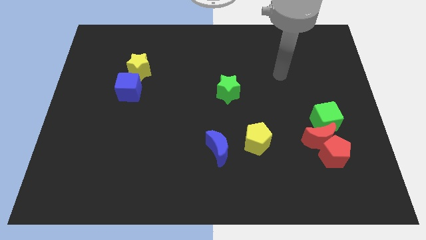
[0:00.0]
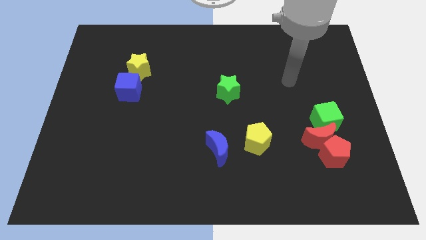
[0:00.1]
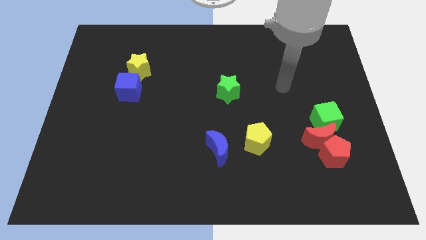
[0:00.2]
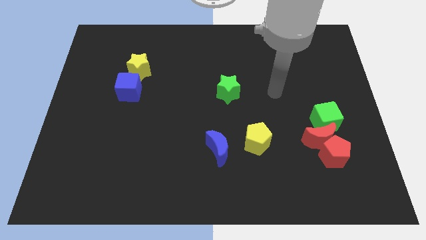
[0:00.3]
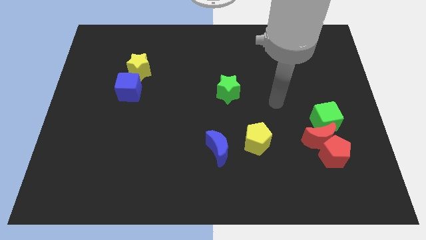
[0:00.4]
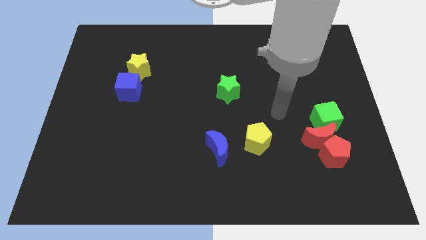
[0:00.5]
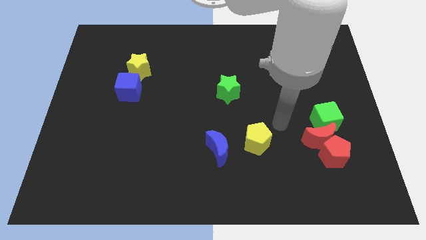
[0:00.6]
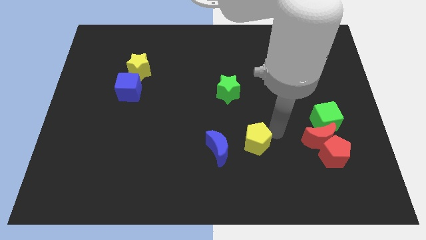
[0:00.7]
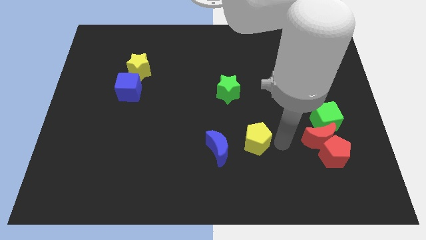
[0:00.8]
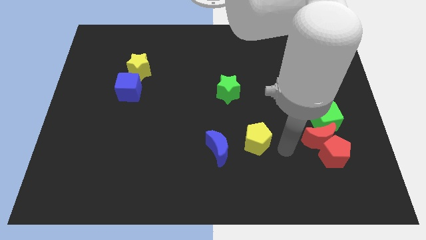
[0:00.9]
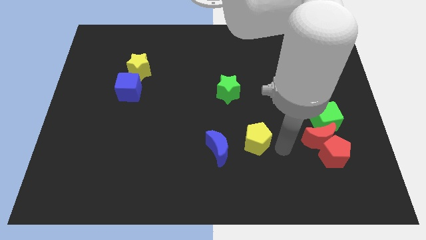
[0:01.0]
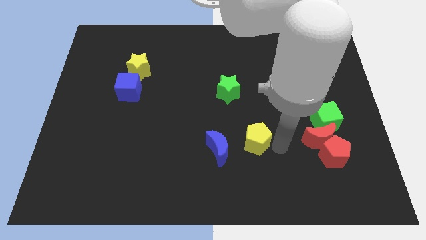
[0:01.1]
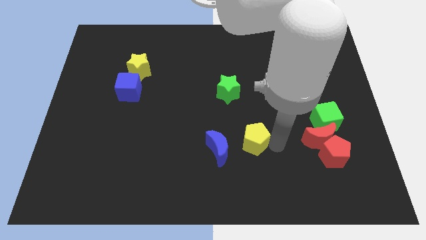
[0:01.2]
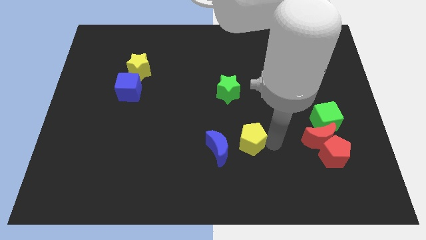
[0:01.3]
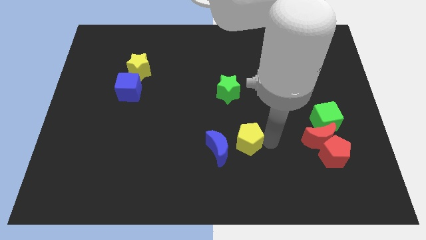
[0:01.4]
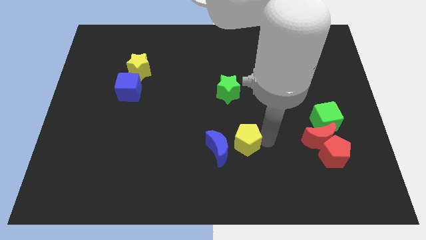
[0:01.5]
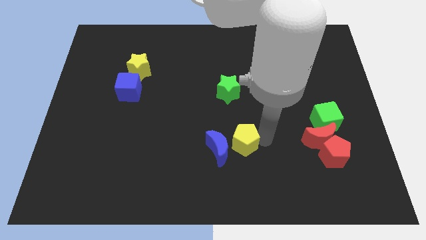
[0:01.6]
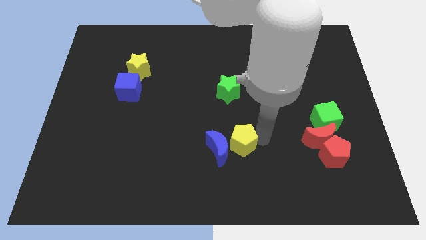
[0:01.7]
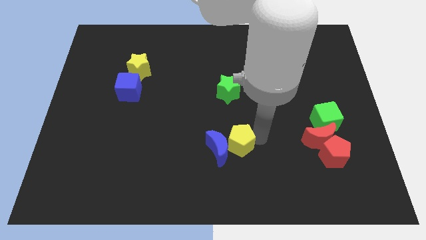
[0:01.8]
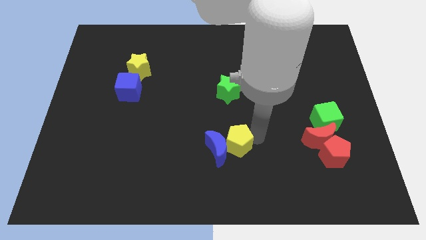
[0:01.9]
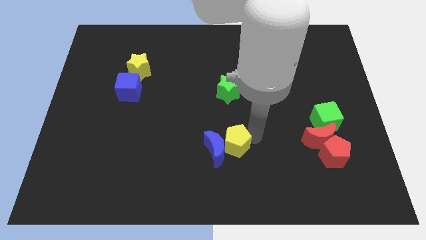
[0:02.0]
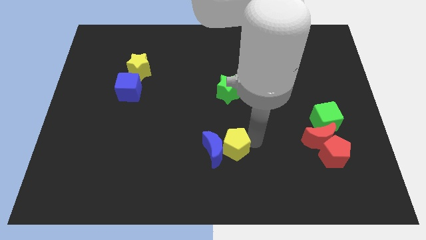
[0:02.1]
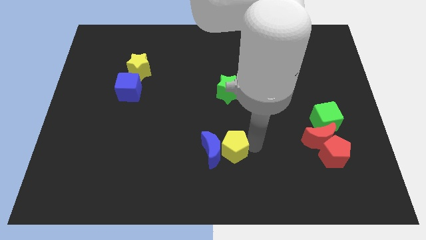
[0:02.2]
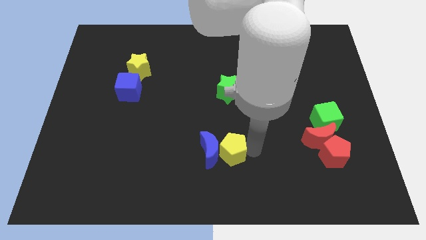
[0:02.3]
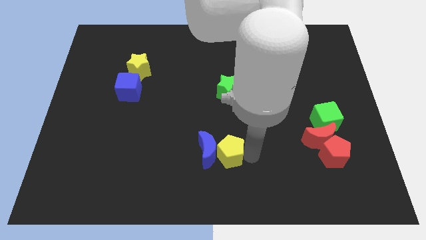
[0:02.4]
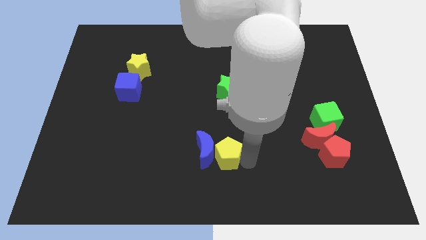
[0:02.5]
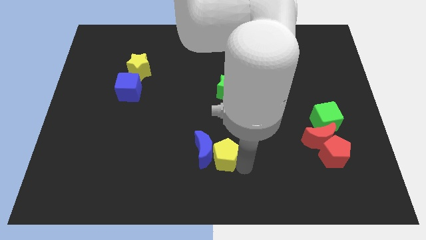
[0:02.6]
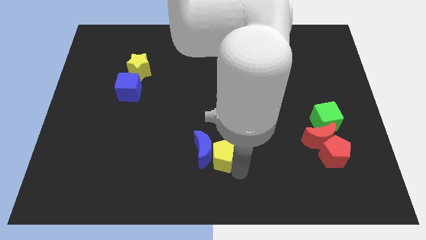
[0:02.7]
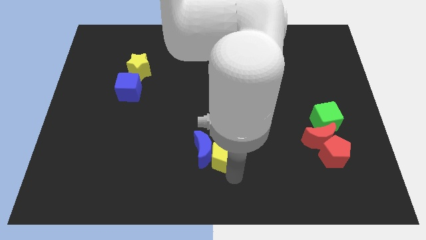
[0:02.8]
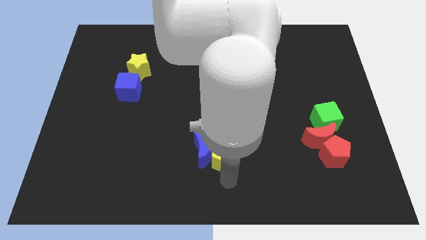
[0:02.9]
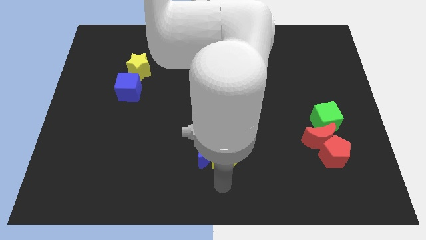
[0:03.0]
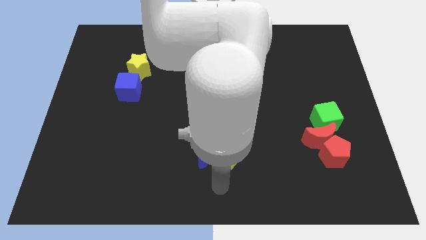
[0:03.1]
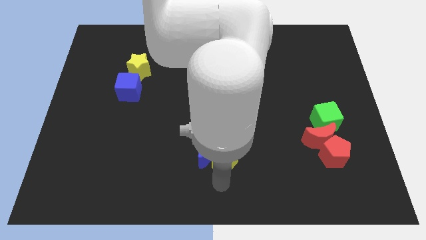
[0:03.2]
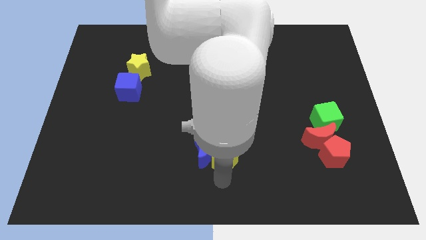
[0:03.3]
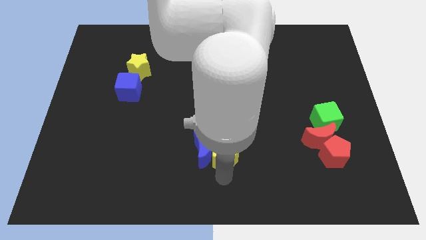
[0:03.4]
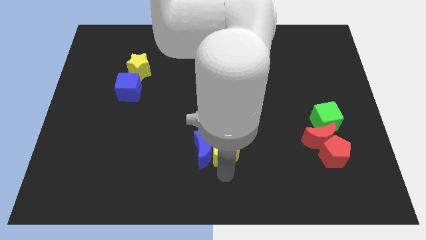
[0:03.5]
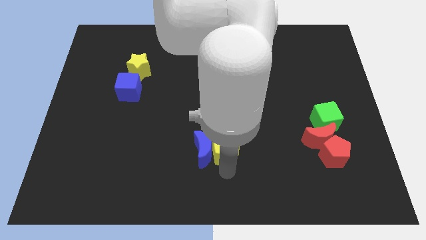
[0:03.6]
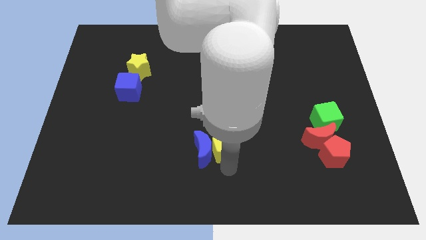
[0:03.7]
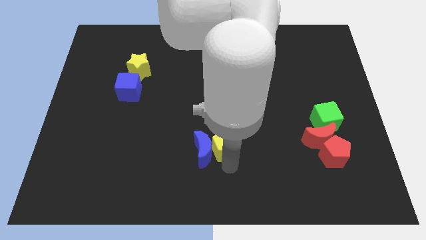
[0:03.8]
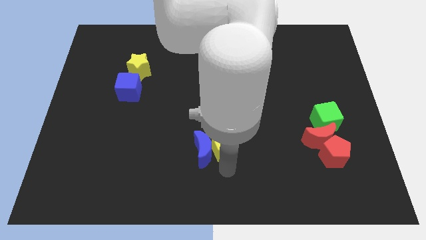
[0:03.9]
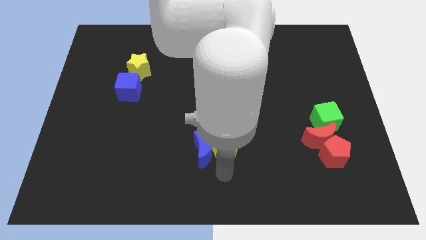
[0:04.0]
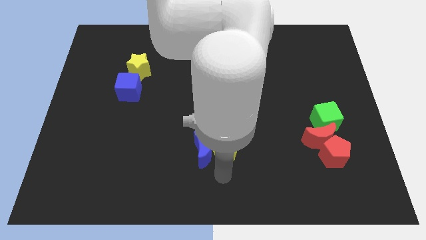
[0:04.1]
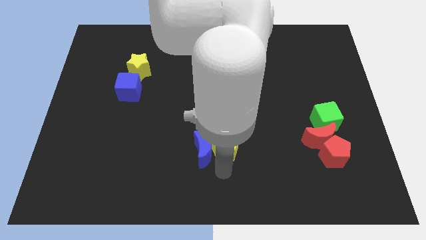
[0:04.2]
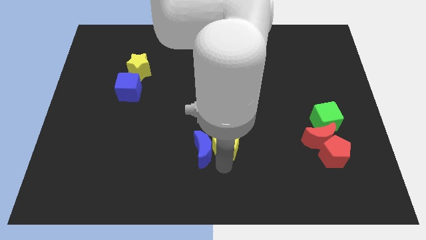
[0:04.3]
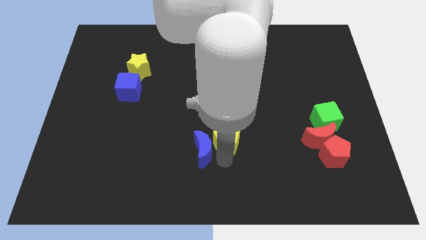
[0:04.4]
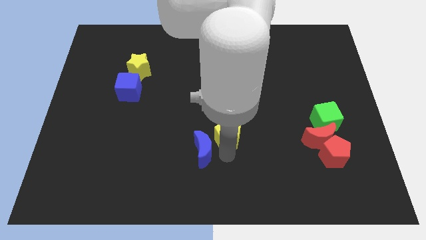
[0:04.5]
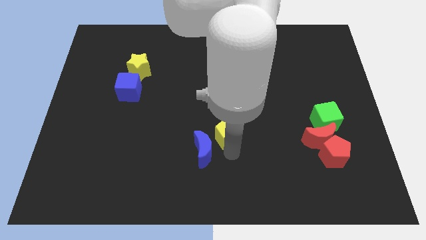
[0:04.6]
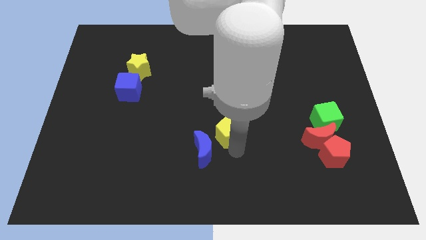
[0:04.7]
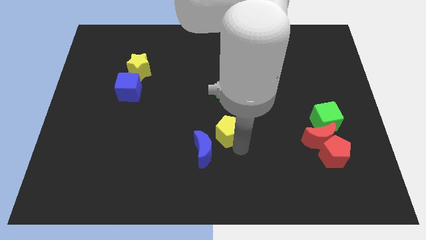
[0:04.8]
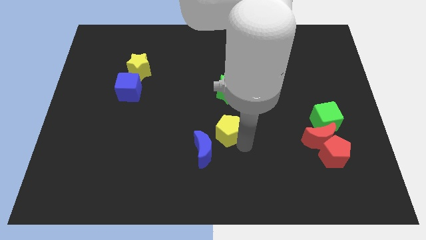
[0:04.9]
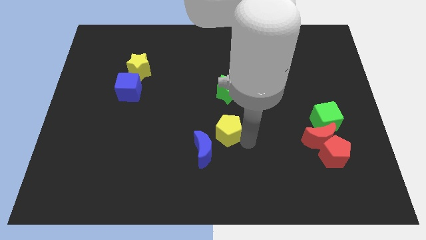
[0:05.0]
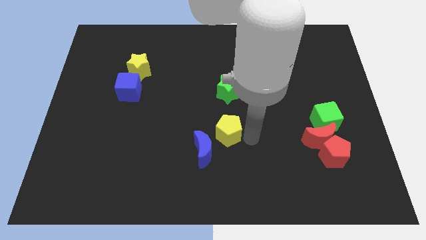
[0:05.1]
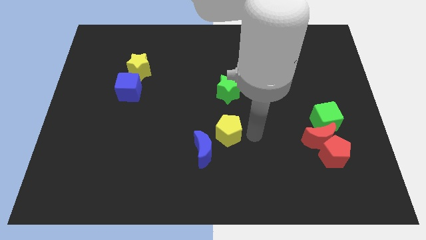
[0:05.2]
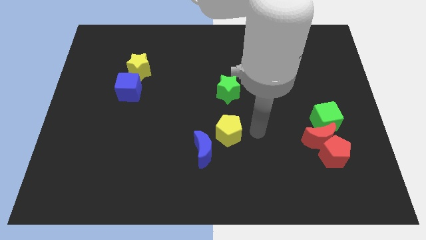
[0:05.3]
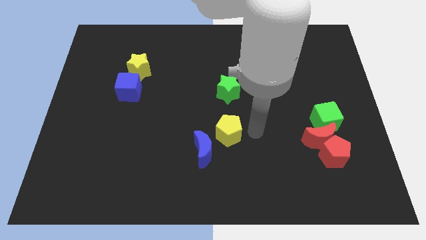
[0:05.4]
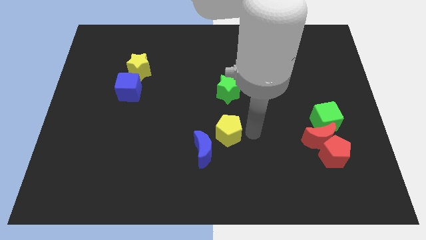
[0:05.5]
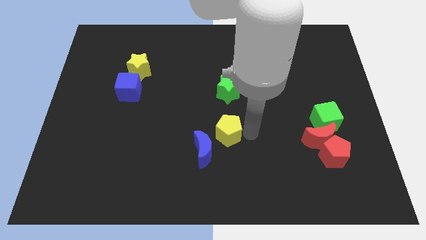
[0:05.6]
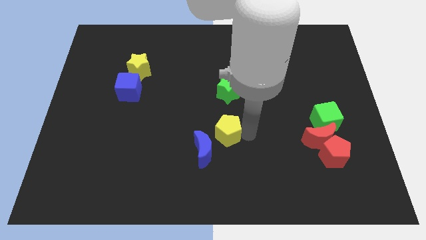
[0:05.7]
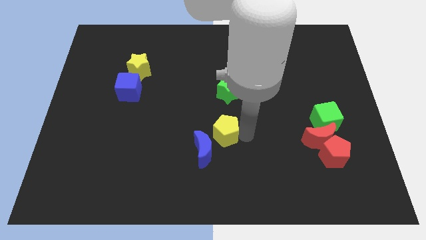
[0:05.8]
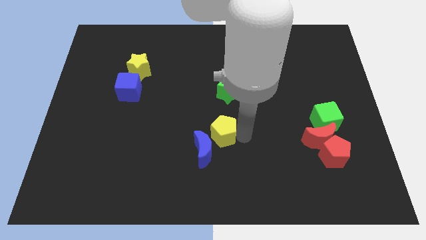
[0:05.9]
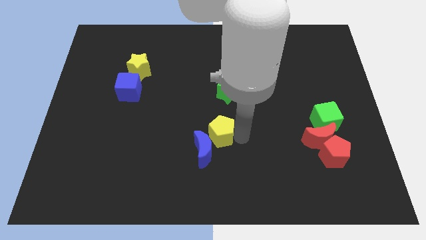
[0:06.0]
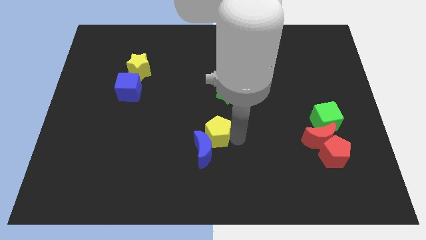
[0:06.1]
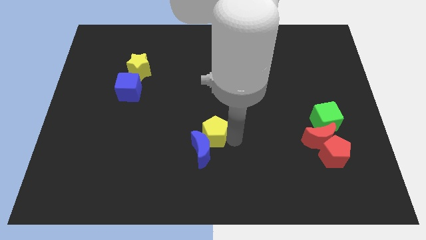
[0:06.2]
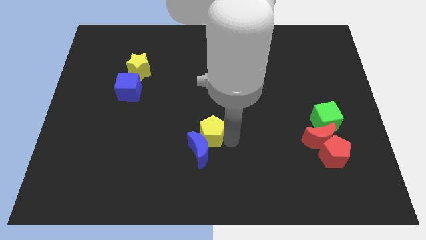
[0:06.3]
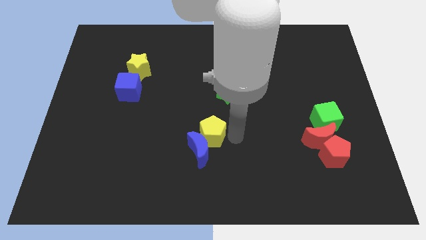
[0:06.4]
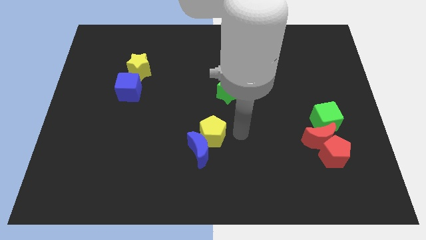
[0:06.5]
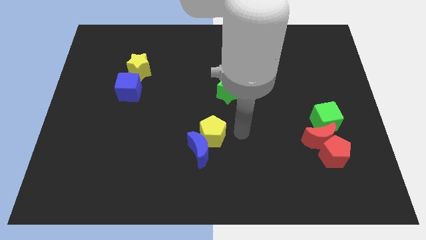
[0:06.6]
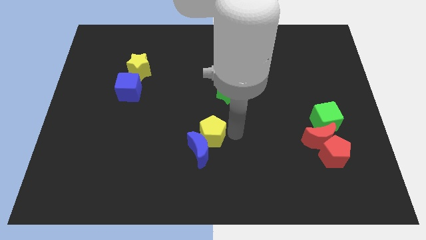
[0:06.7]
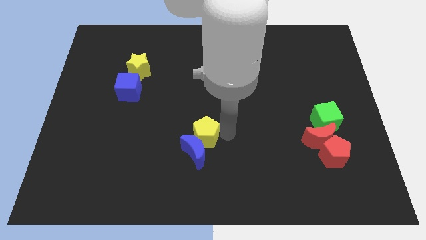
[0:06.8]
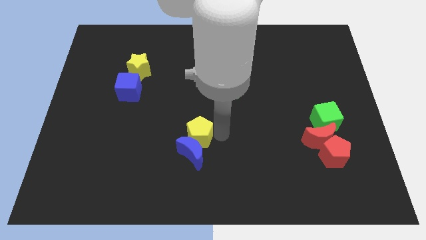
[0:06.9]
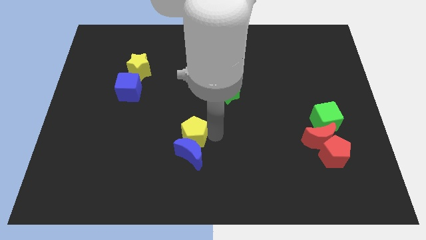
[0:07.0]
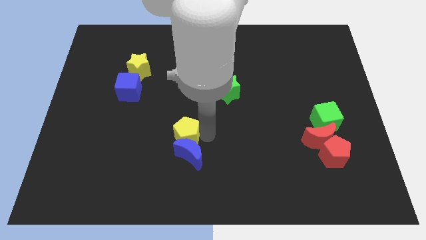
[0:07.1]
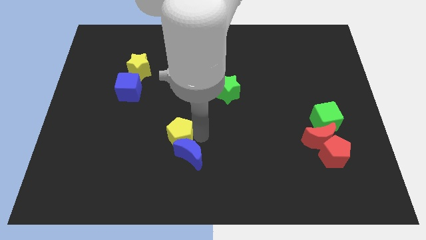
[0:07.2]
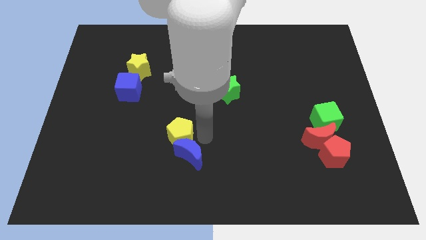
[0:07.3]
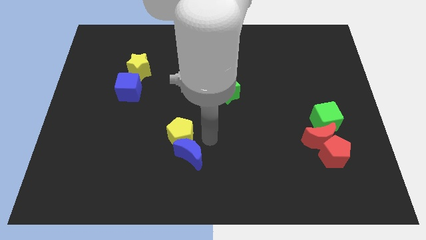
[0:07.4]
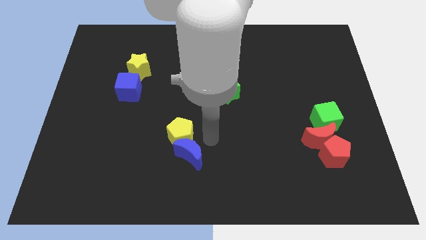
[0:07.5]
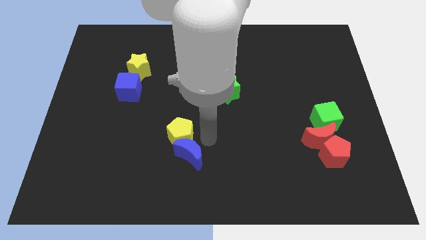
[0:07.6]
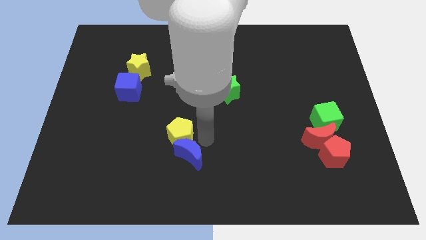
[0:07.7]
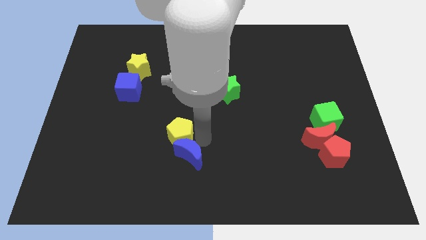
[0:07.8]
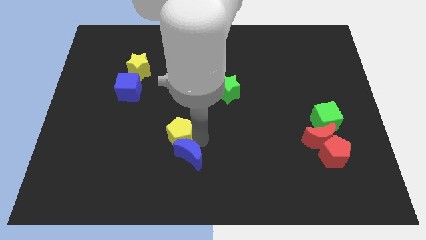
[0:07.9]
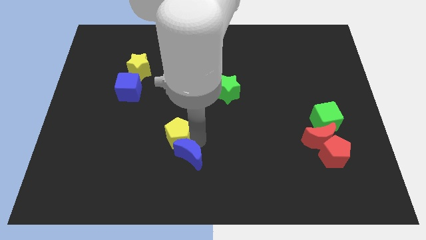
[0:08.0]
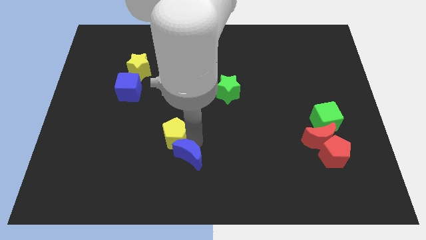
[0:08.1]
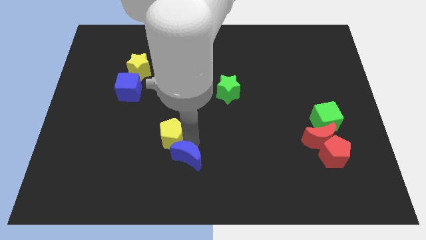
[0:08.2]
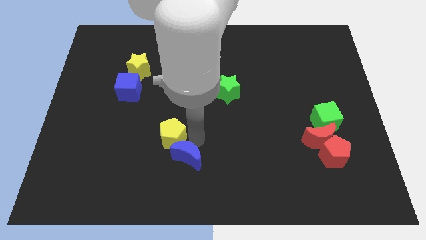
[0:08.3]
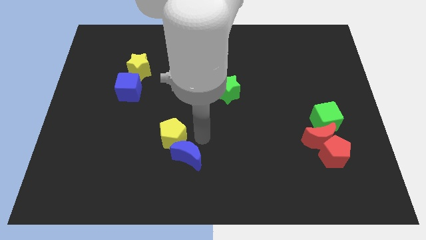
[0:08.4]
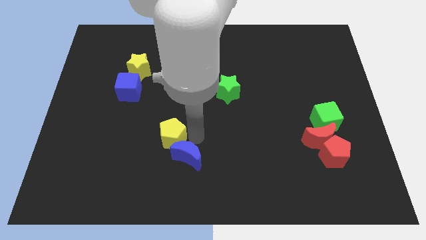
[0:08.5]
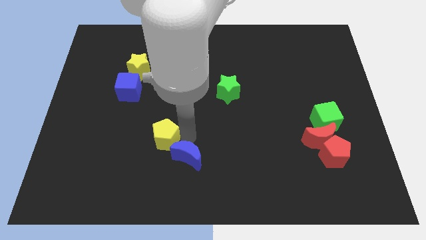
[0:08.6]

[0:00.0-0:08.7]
push the yellow pentagon to the left
